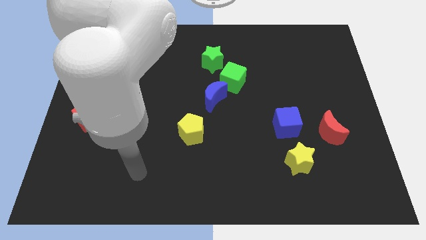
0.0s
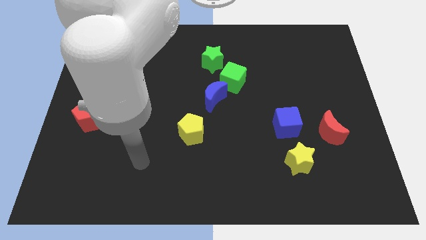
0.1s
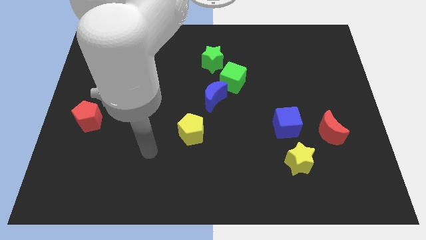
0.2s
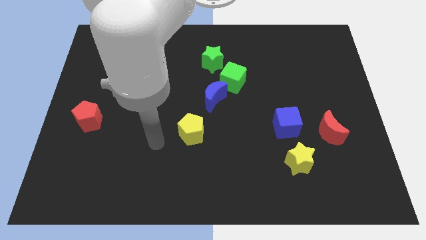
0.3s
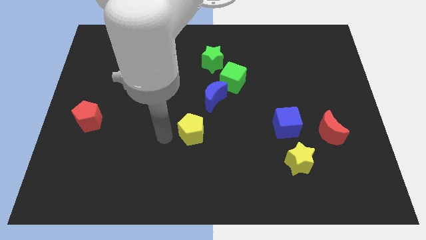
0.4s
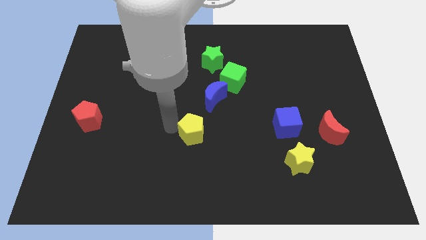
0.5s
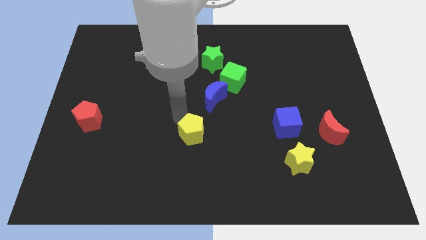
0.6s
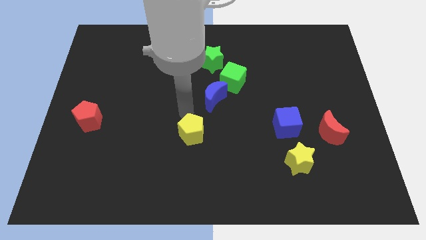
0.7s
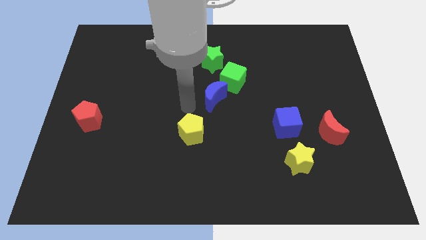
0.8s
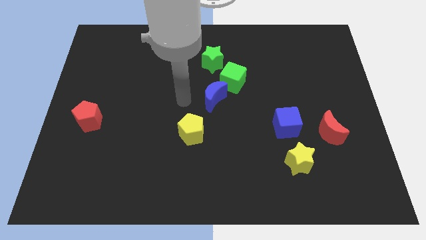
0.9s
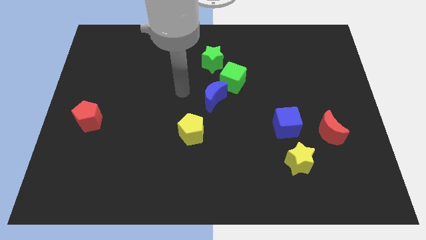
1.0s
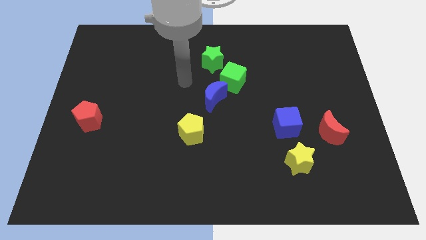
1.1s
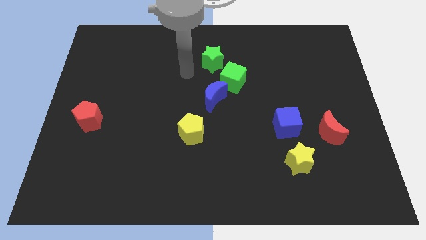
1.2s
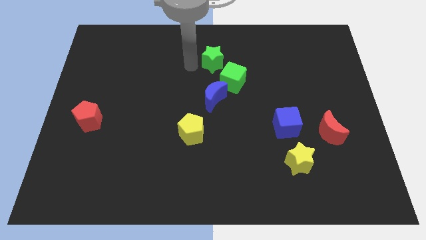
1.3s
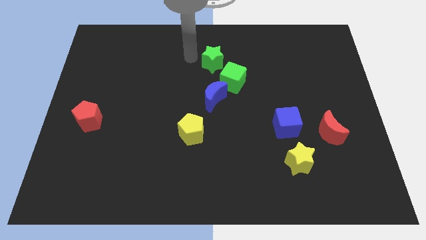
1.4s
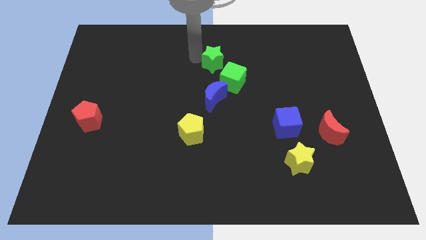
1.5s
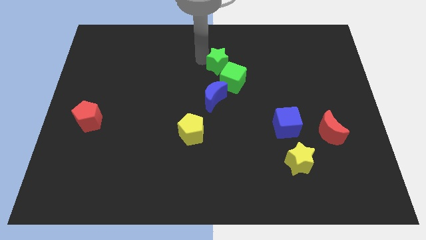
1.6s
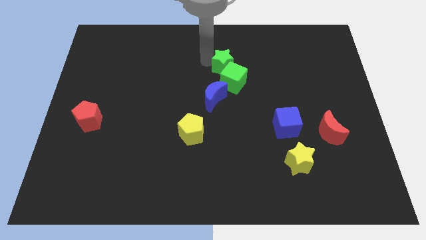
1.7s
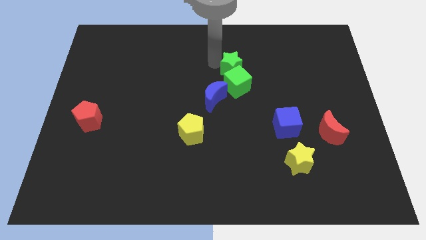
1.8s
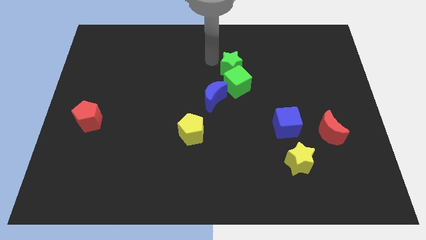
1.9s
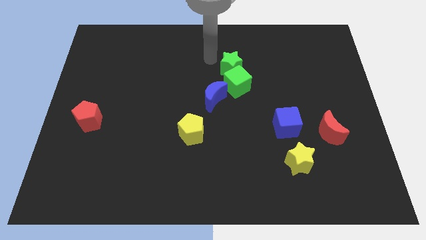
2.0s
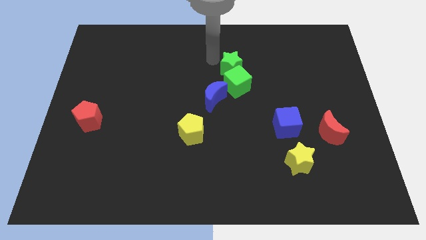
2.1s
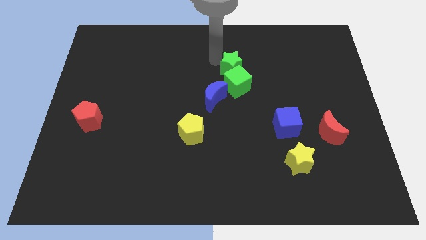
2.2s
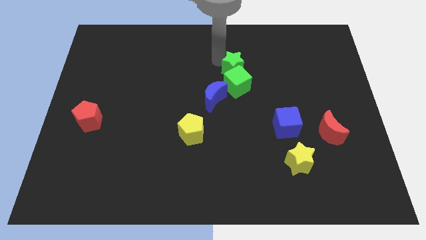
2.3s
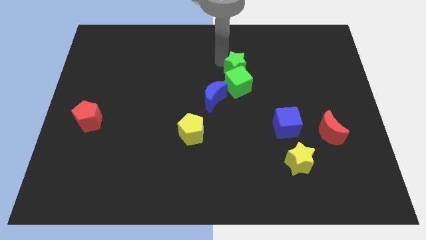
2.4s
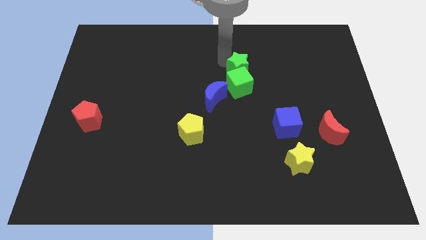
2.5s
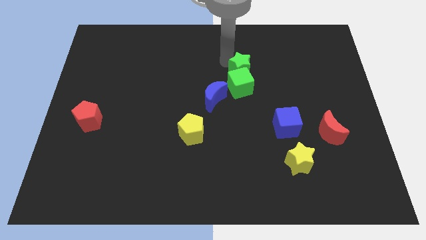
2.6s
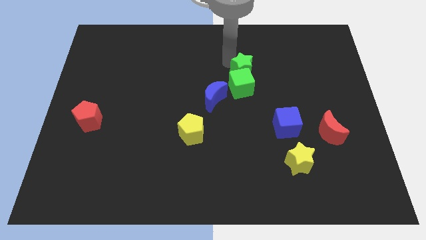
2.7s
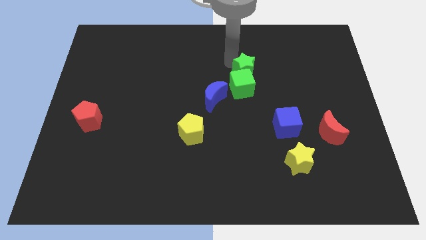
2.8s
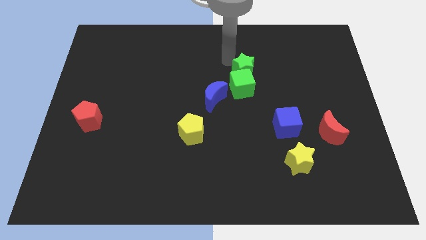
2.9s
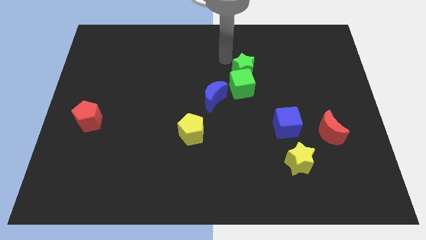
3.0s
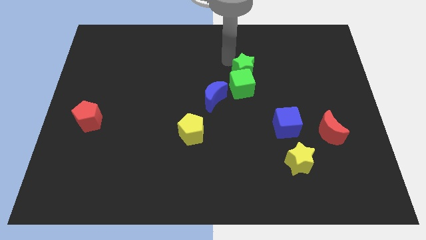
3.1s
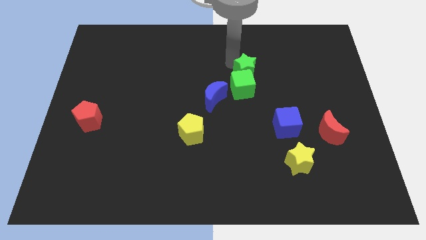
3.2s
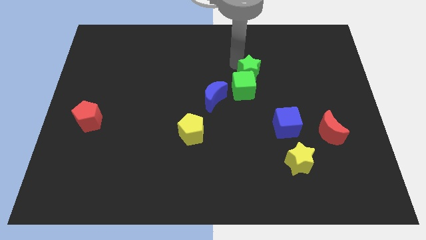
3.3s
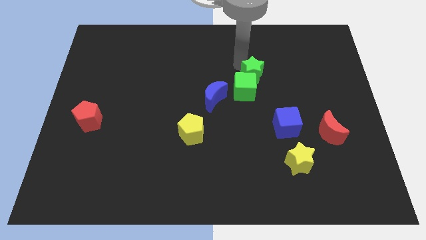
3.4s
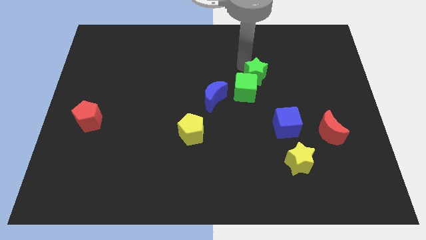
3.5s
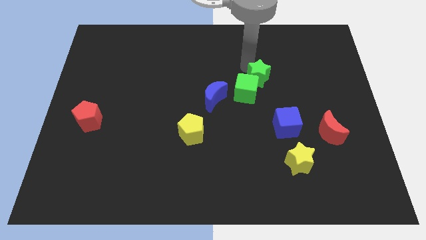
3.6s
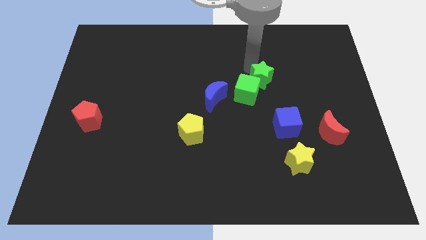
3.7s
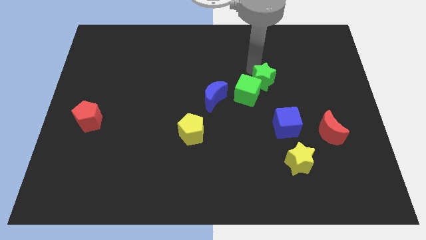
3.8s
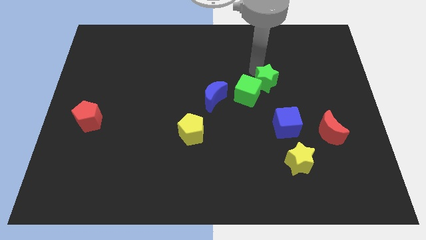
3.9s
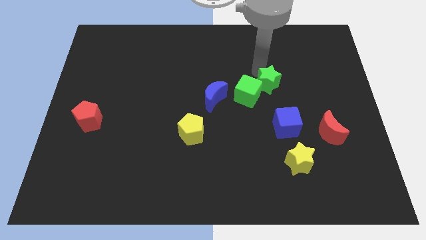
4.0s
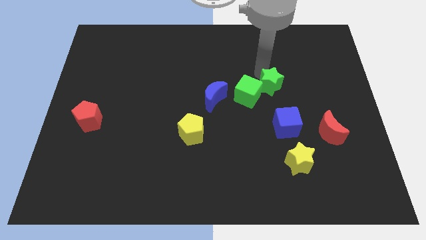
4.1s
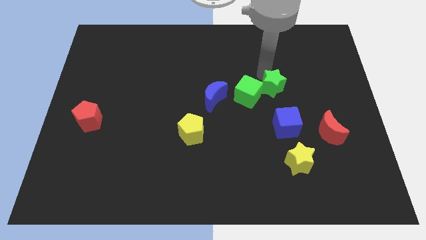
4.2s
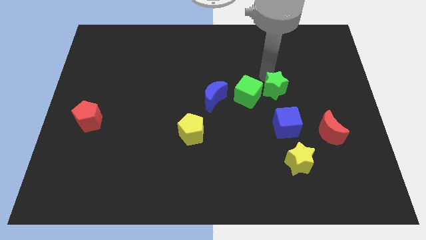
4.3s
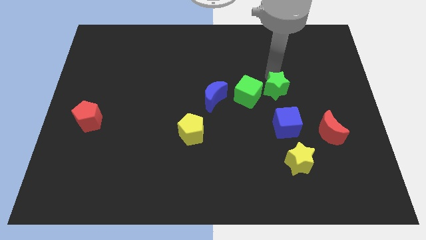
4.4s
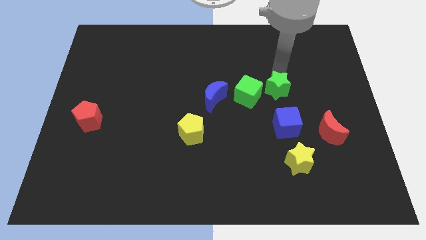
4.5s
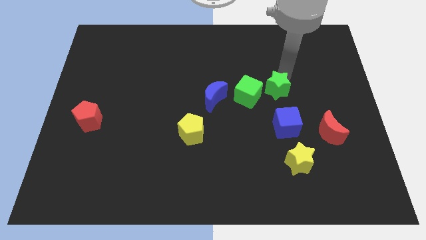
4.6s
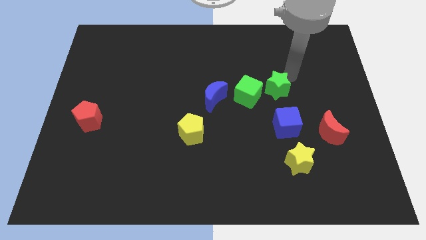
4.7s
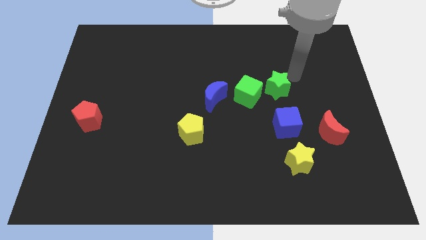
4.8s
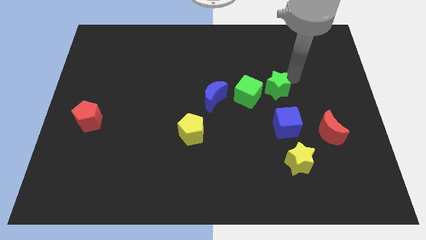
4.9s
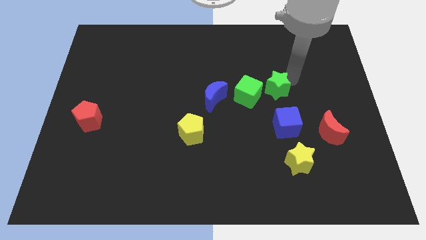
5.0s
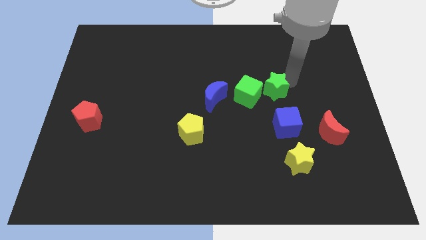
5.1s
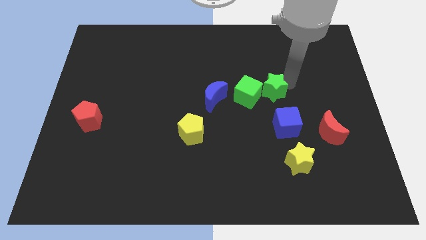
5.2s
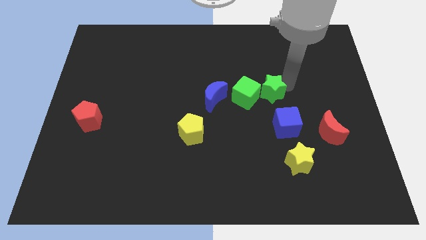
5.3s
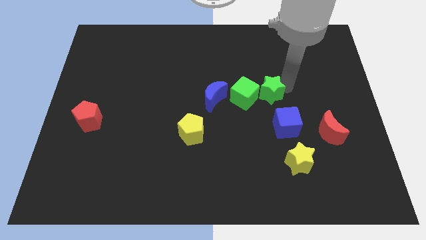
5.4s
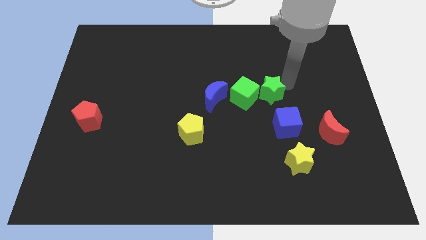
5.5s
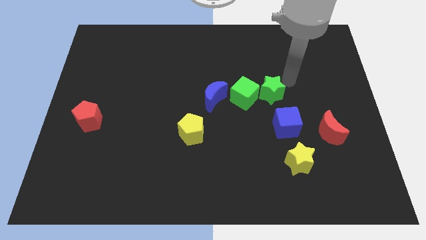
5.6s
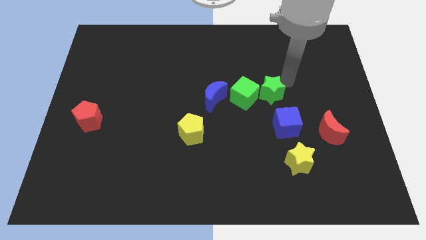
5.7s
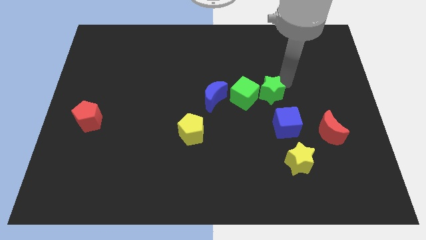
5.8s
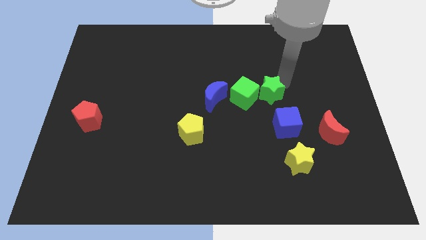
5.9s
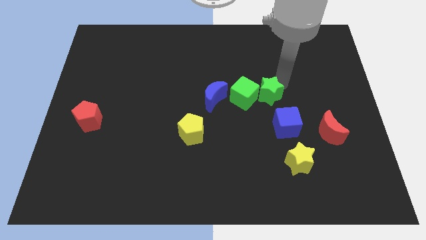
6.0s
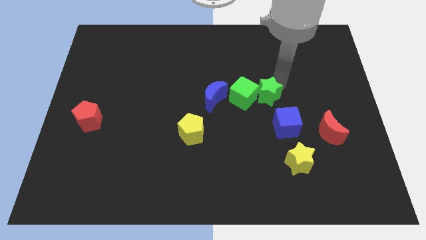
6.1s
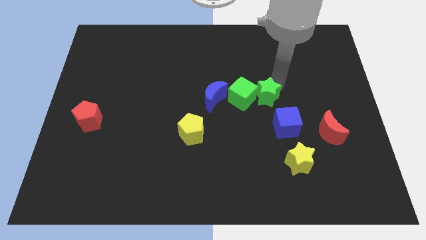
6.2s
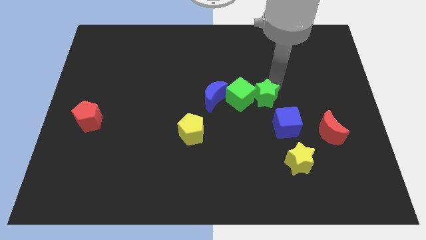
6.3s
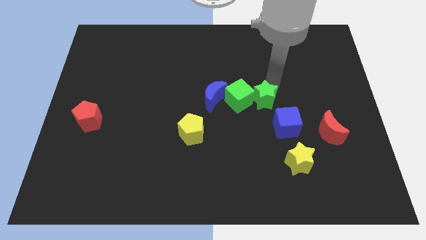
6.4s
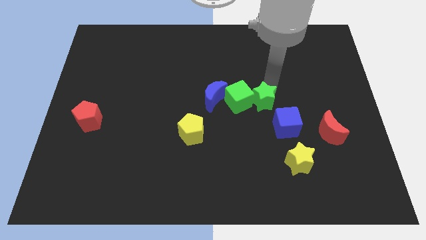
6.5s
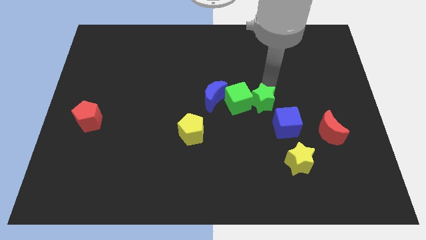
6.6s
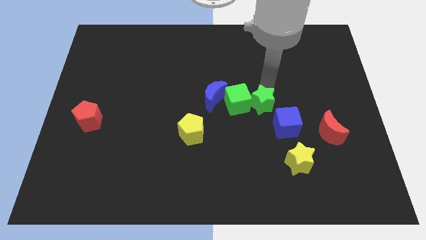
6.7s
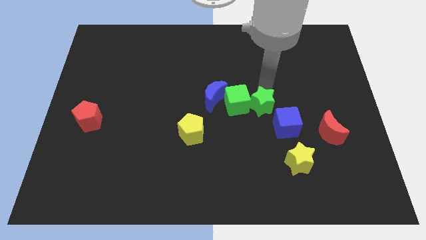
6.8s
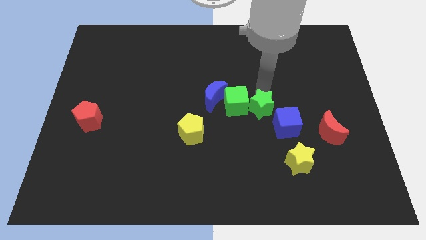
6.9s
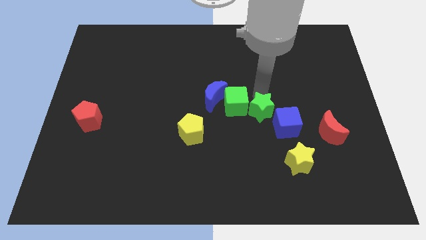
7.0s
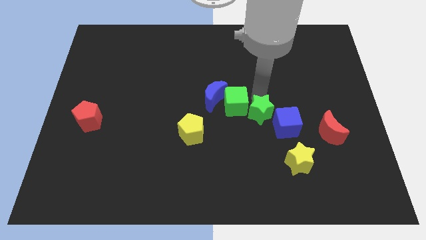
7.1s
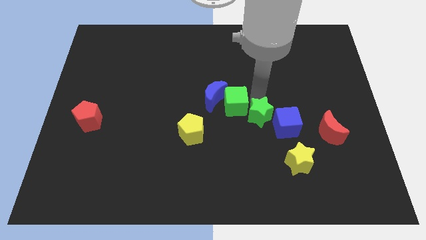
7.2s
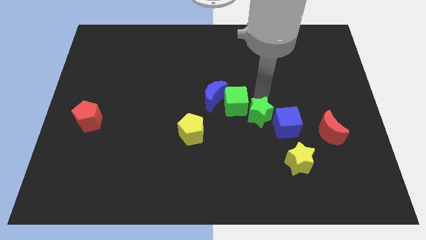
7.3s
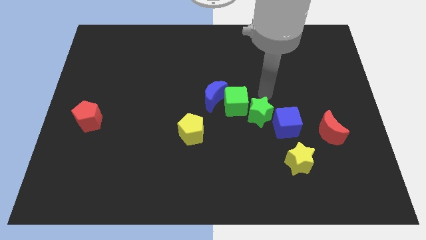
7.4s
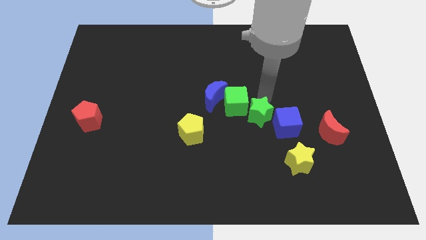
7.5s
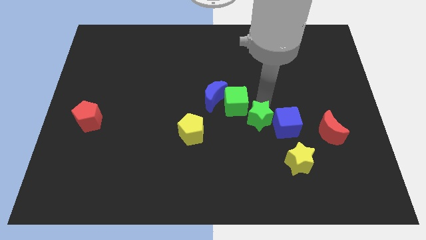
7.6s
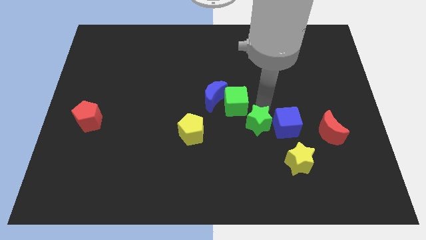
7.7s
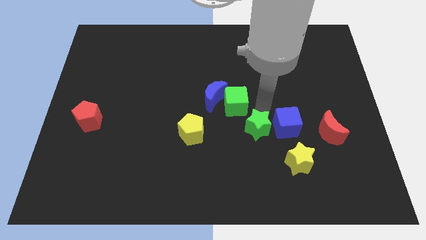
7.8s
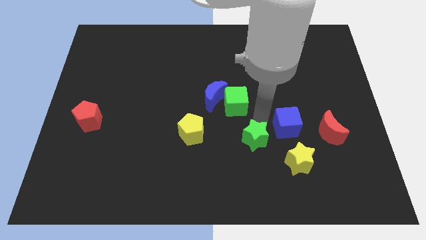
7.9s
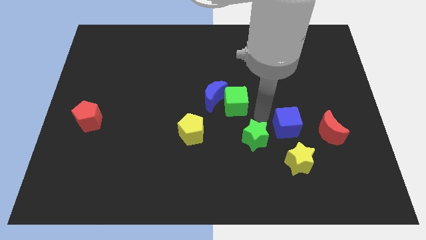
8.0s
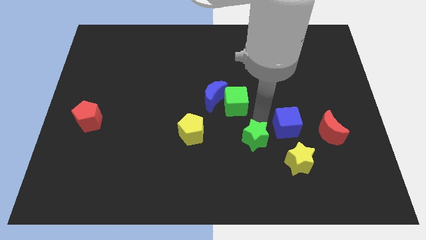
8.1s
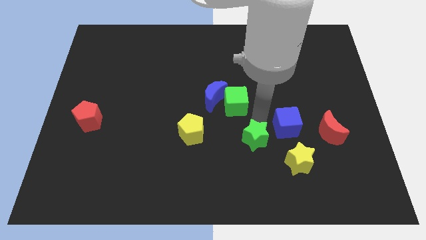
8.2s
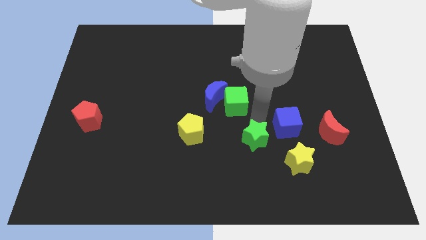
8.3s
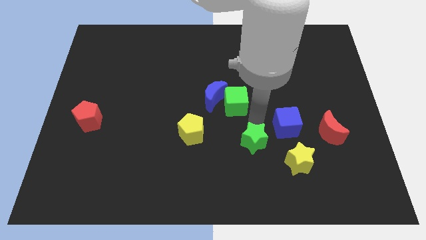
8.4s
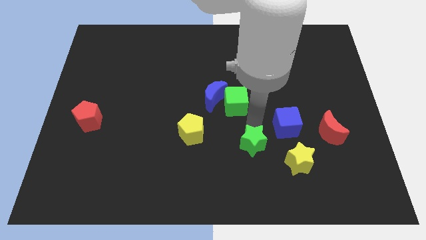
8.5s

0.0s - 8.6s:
put the green star just left of the yellow star
